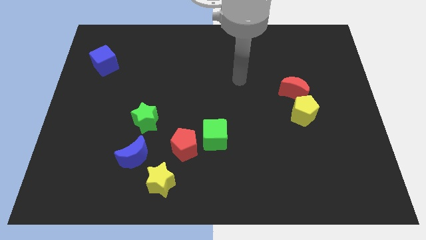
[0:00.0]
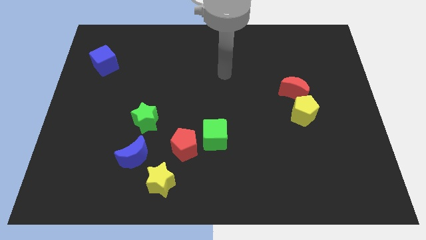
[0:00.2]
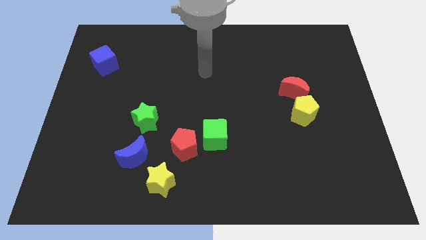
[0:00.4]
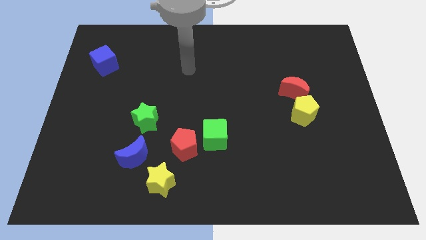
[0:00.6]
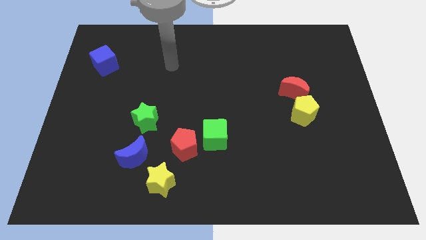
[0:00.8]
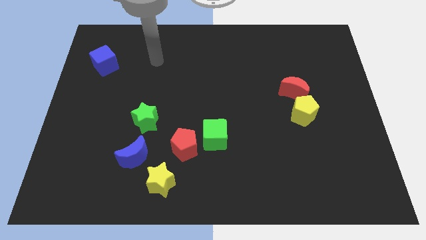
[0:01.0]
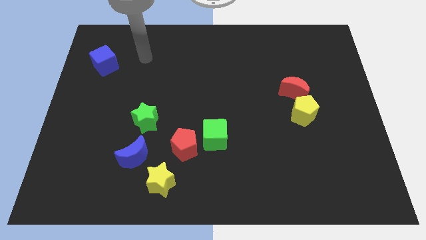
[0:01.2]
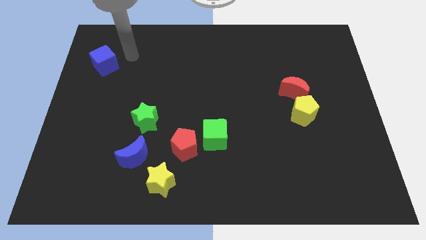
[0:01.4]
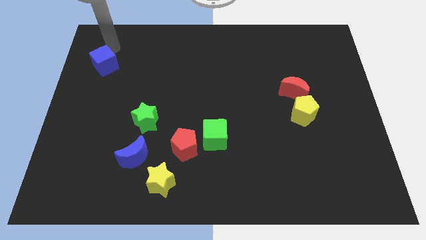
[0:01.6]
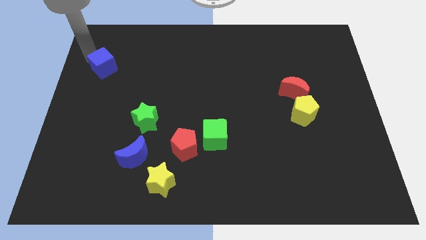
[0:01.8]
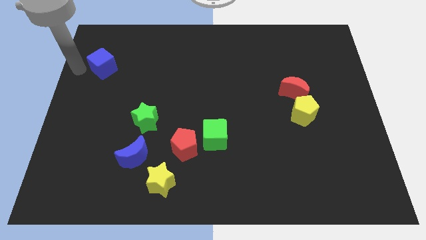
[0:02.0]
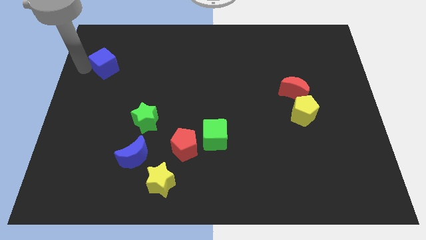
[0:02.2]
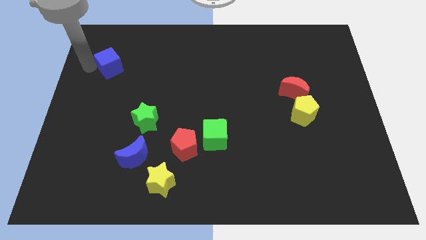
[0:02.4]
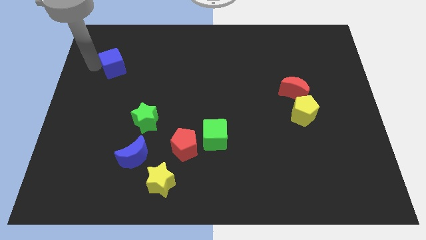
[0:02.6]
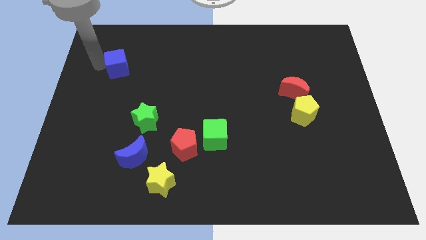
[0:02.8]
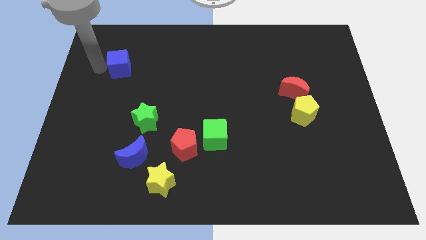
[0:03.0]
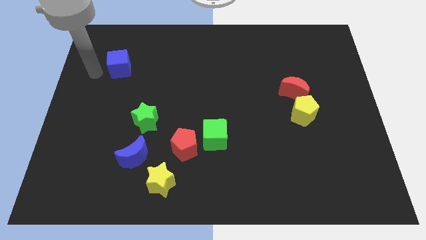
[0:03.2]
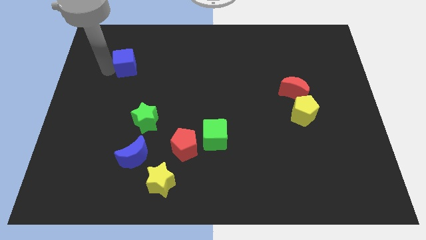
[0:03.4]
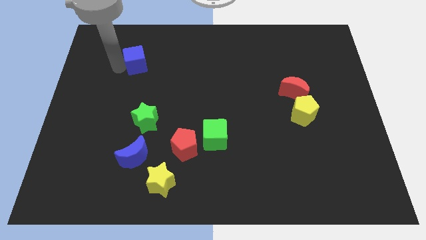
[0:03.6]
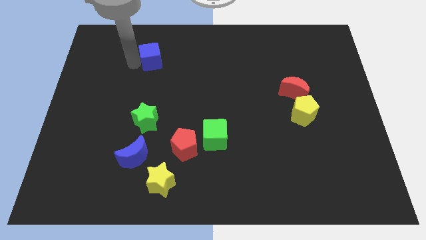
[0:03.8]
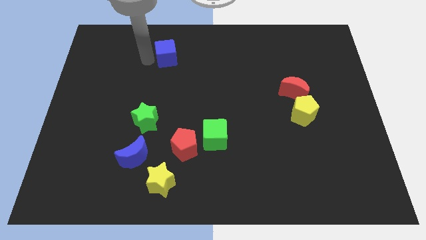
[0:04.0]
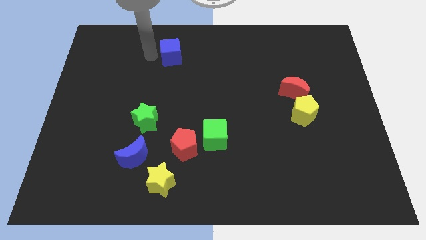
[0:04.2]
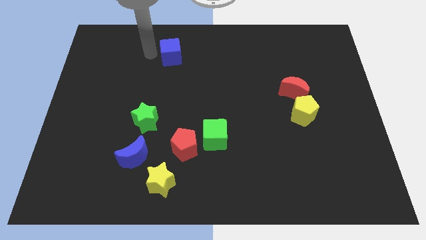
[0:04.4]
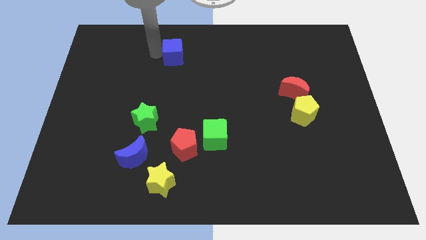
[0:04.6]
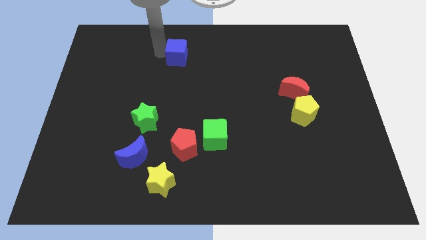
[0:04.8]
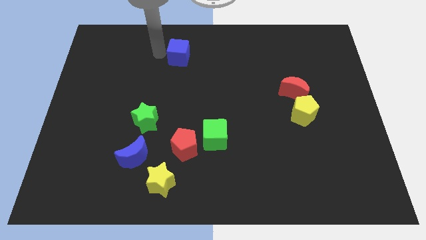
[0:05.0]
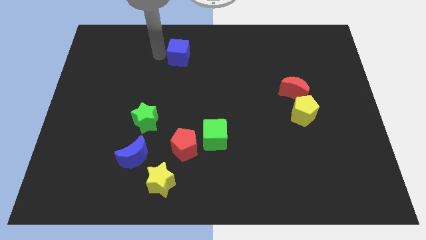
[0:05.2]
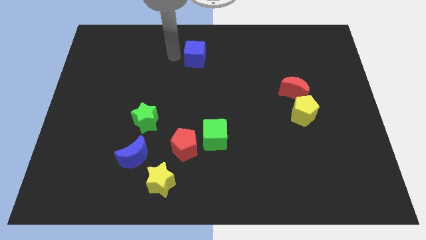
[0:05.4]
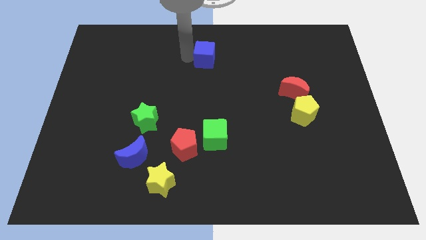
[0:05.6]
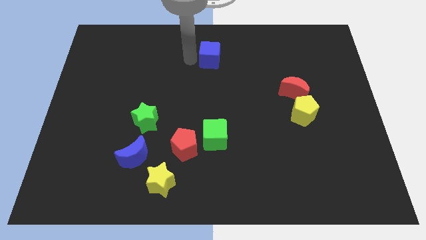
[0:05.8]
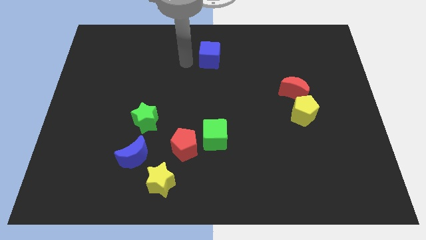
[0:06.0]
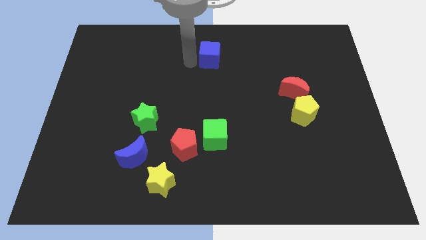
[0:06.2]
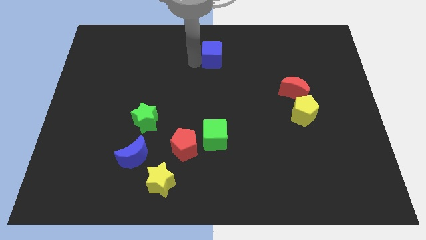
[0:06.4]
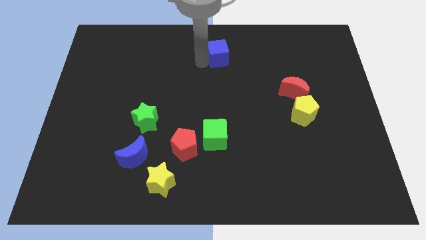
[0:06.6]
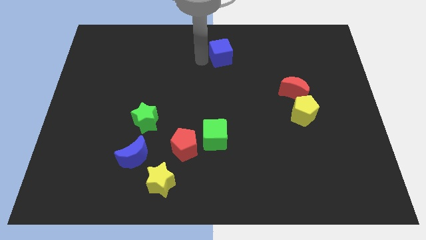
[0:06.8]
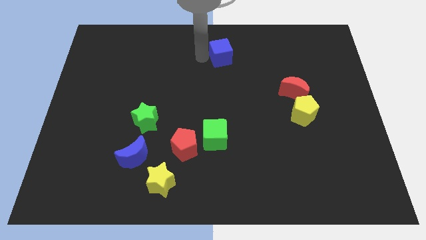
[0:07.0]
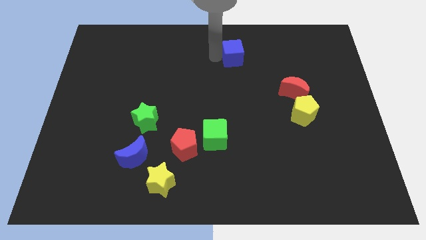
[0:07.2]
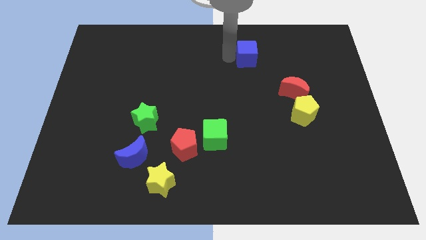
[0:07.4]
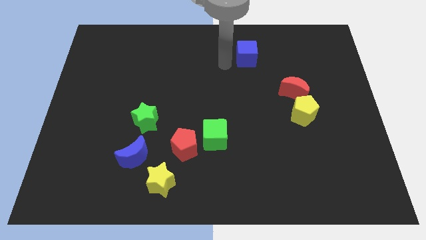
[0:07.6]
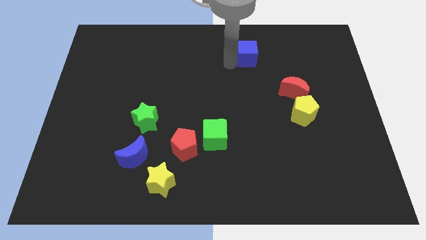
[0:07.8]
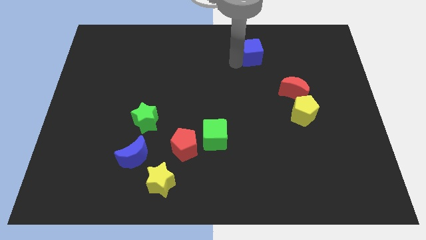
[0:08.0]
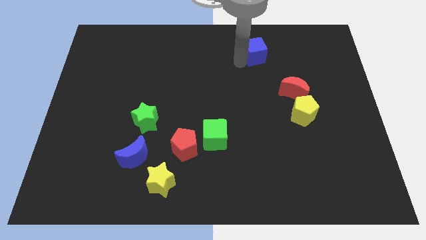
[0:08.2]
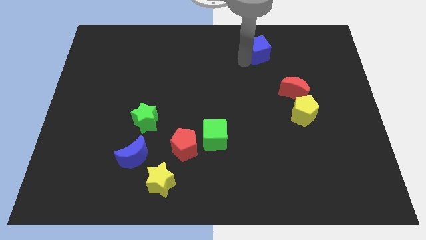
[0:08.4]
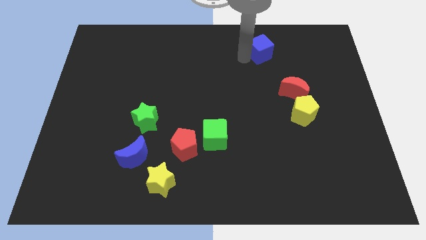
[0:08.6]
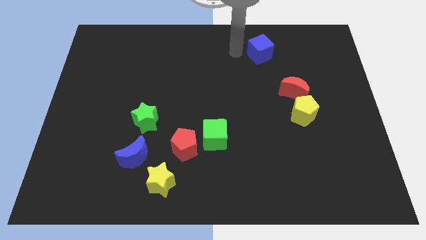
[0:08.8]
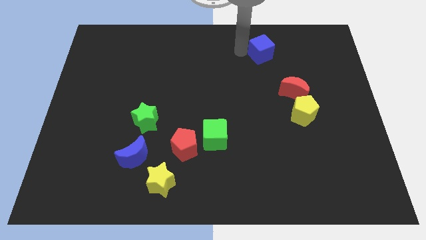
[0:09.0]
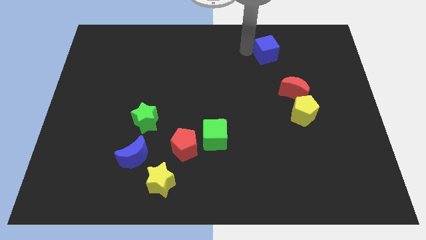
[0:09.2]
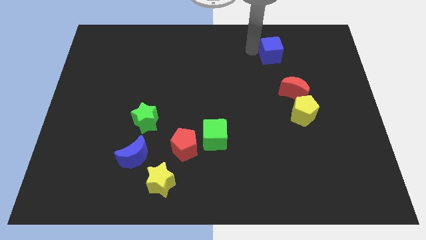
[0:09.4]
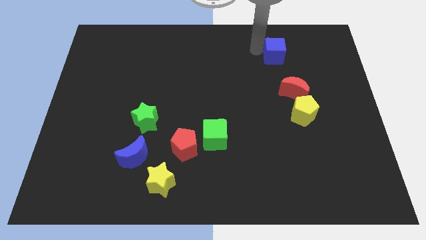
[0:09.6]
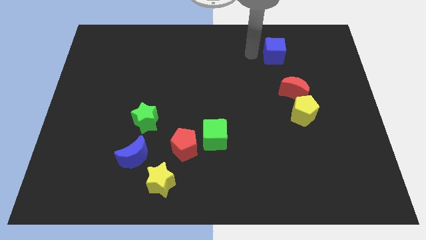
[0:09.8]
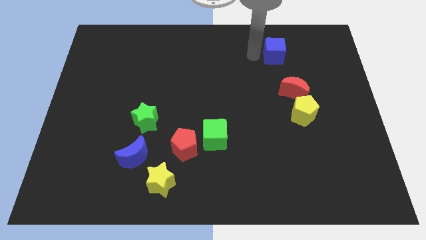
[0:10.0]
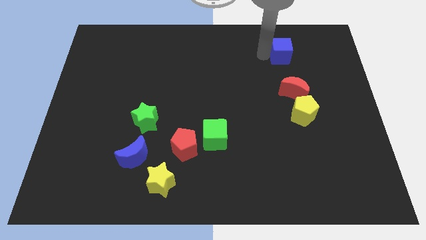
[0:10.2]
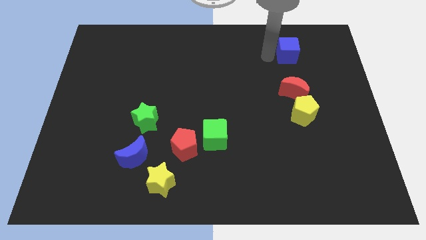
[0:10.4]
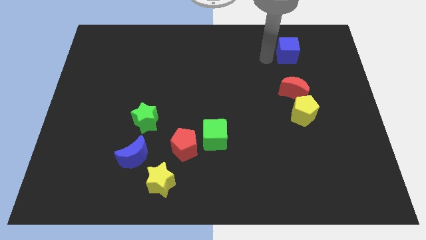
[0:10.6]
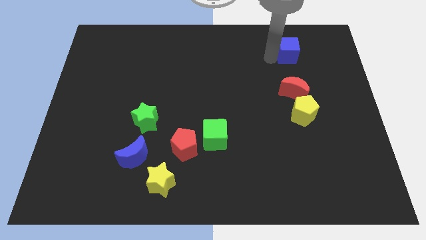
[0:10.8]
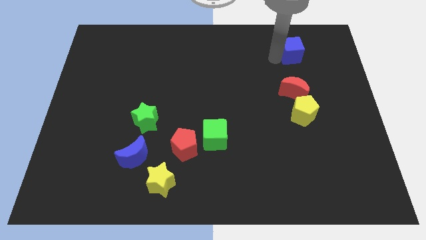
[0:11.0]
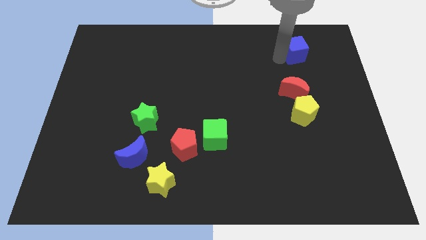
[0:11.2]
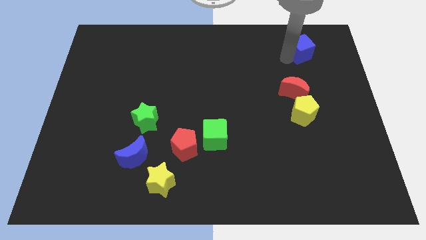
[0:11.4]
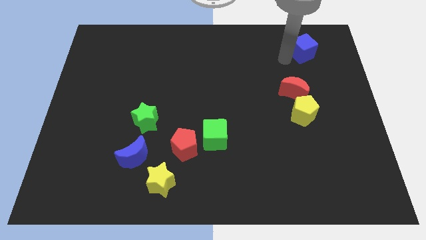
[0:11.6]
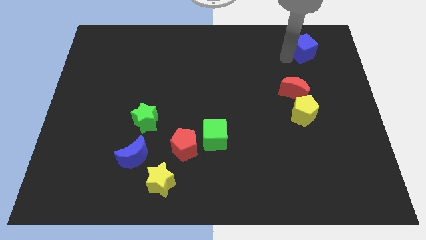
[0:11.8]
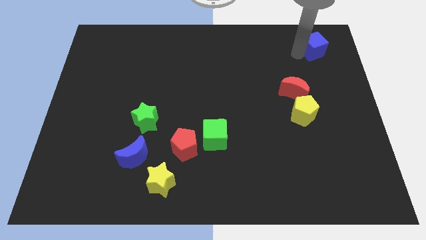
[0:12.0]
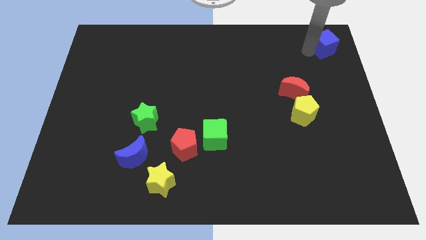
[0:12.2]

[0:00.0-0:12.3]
put the blue cube to the top right corner
